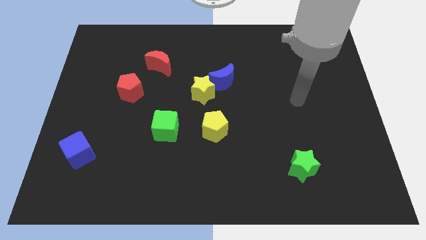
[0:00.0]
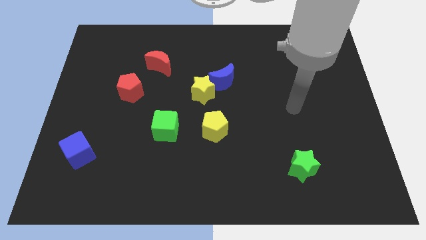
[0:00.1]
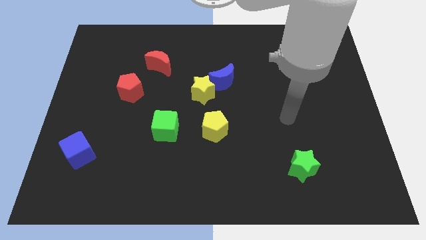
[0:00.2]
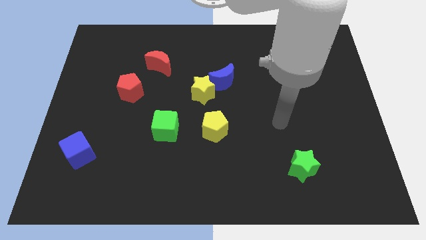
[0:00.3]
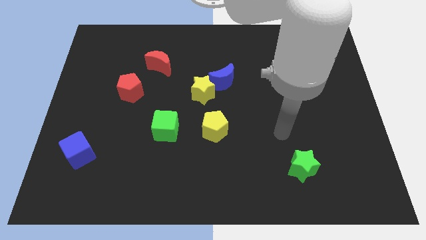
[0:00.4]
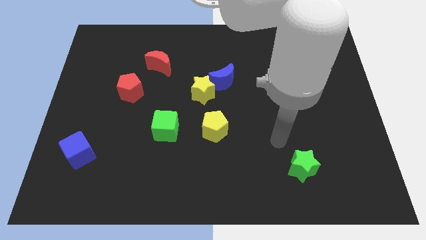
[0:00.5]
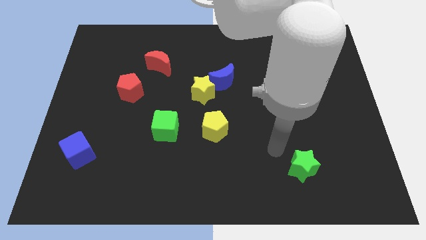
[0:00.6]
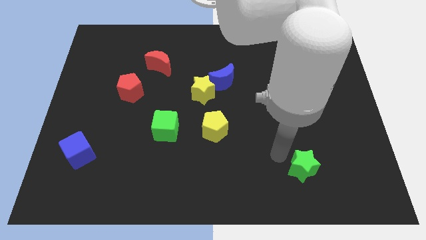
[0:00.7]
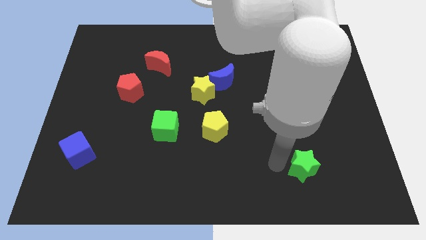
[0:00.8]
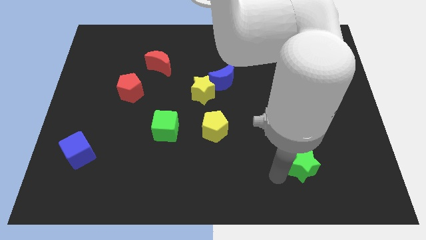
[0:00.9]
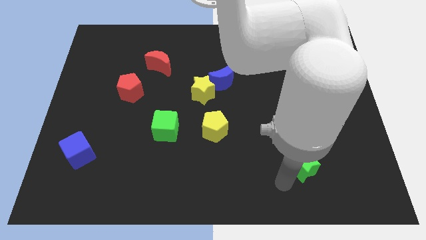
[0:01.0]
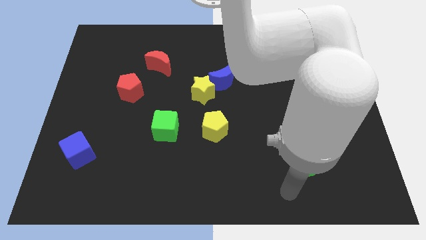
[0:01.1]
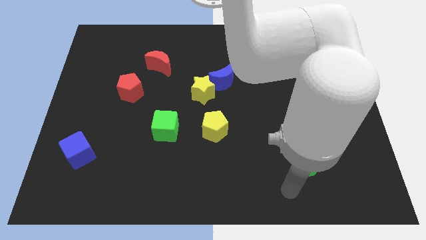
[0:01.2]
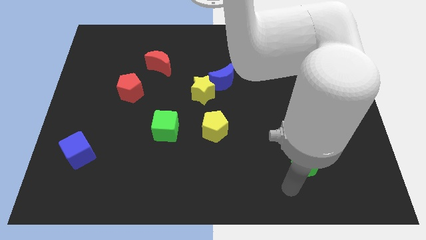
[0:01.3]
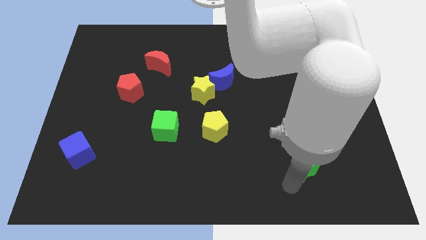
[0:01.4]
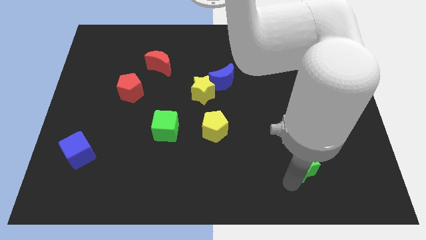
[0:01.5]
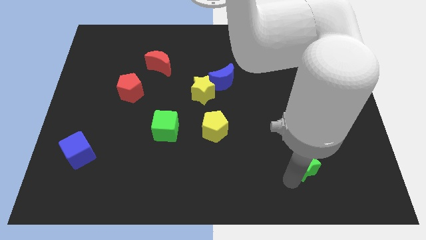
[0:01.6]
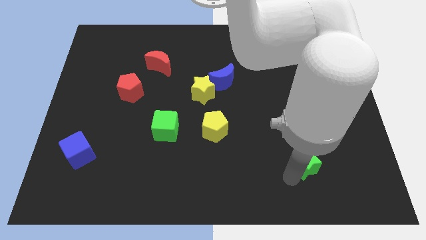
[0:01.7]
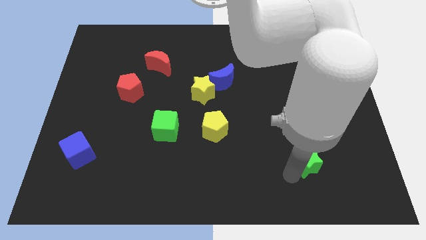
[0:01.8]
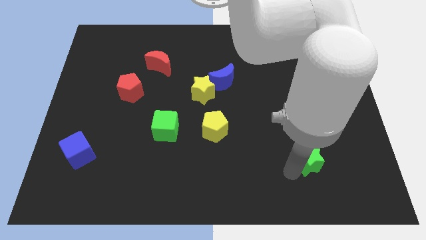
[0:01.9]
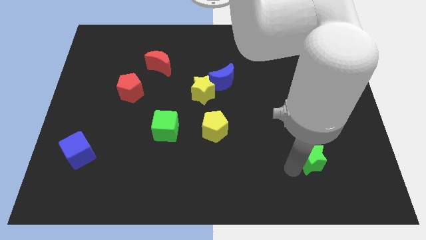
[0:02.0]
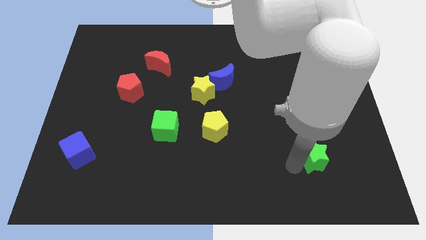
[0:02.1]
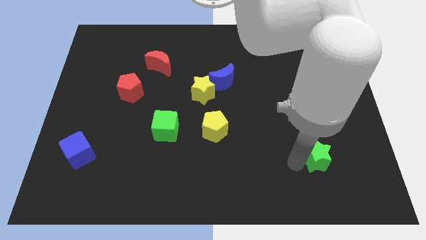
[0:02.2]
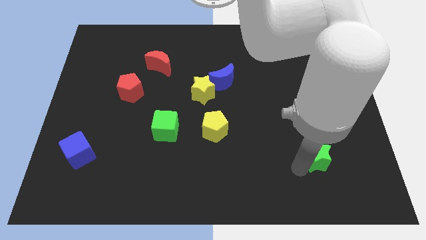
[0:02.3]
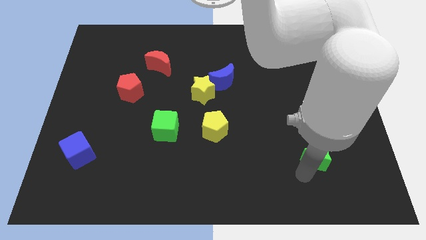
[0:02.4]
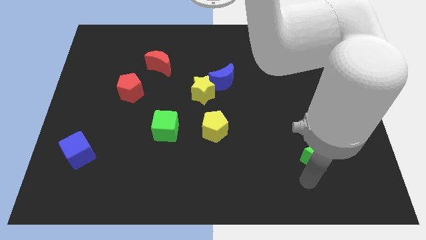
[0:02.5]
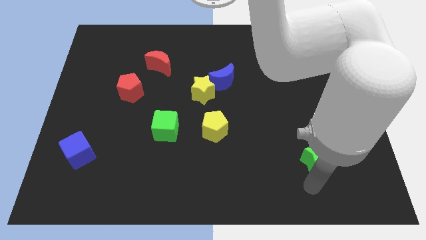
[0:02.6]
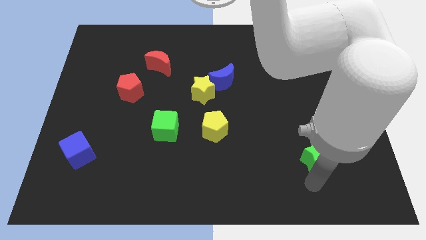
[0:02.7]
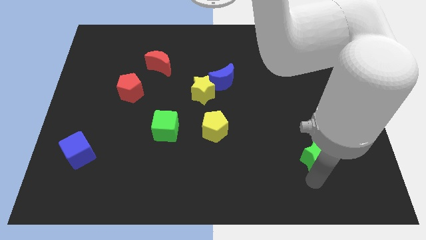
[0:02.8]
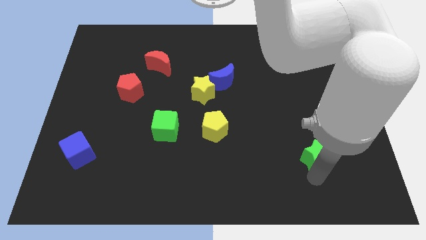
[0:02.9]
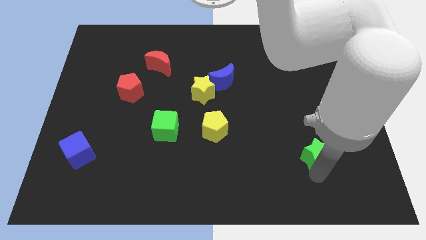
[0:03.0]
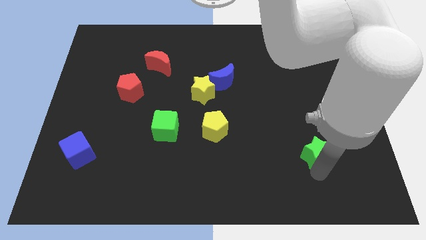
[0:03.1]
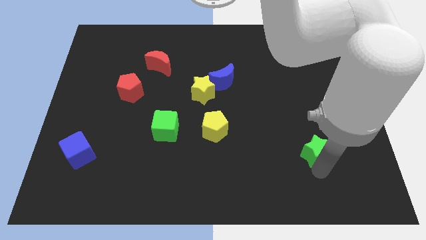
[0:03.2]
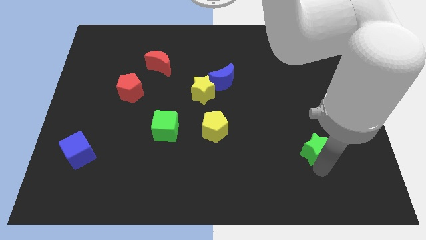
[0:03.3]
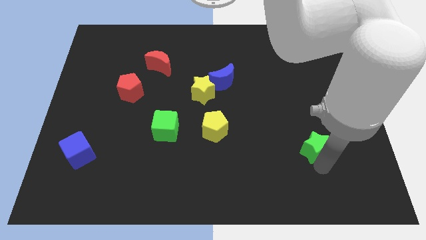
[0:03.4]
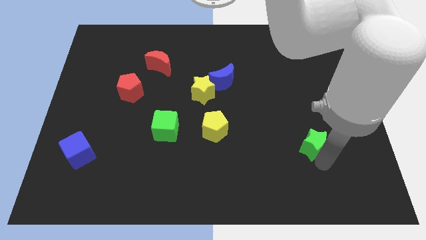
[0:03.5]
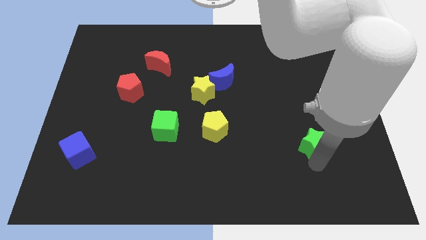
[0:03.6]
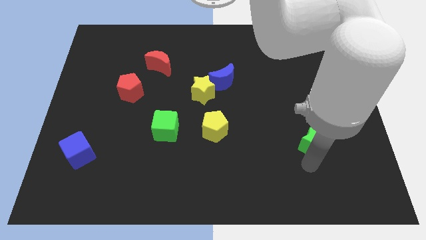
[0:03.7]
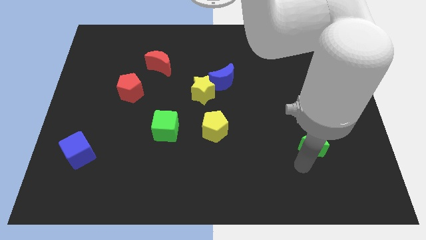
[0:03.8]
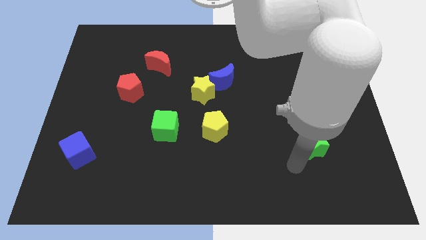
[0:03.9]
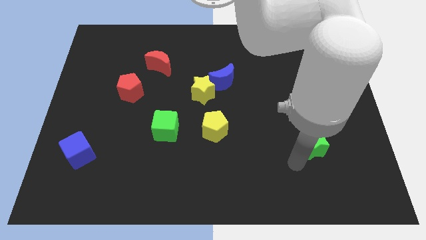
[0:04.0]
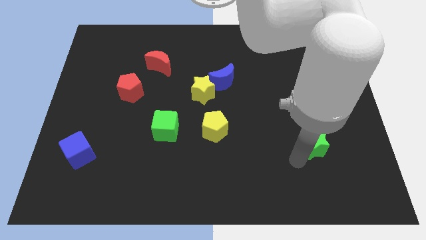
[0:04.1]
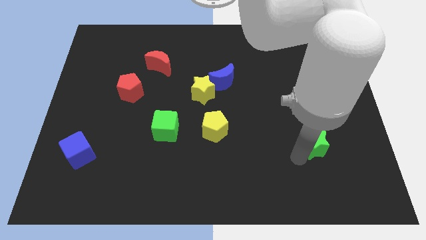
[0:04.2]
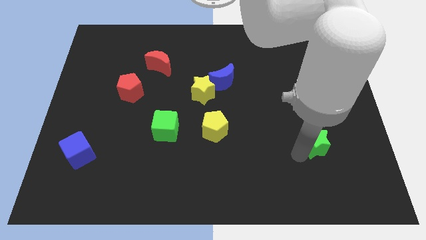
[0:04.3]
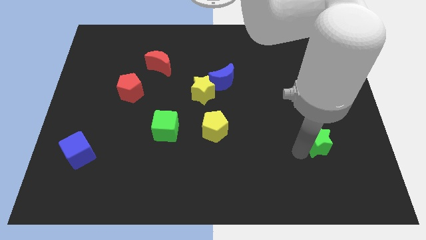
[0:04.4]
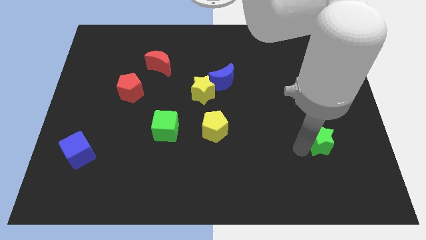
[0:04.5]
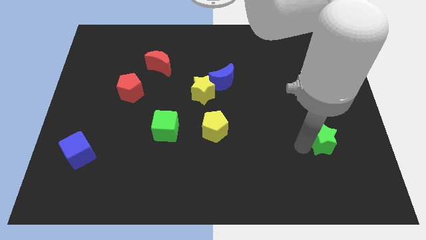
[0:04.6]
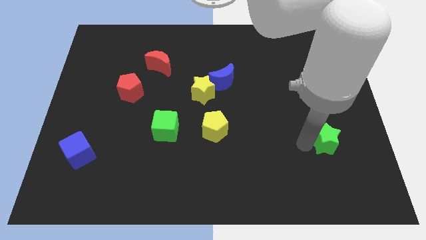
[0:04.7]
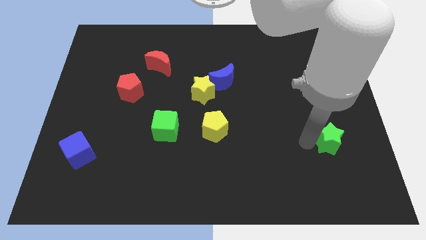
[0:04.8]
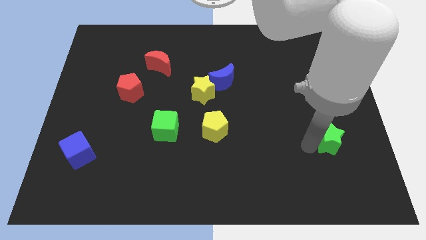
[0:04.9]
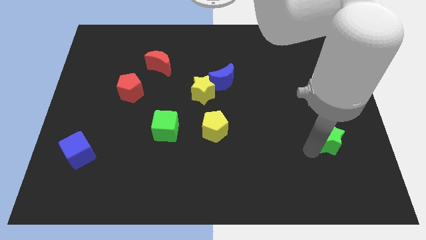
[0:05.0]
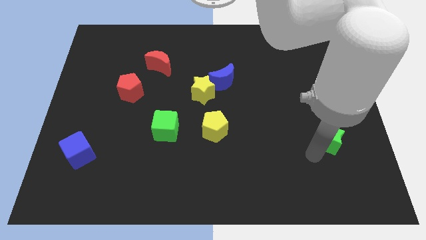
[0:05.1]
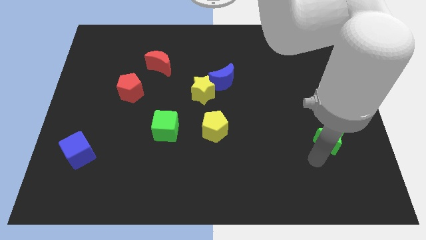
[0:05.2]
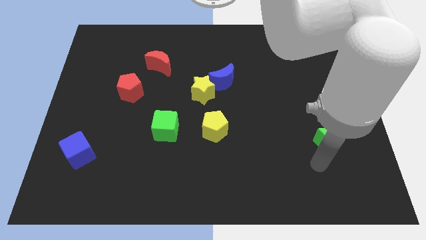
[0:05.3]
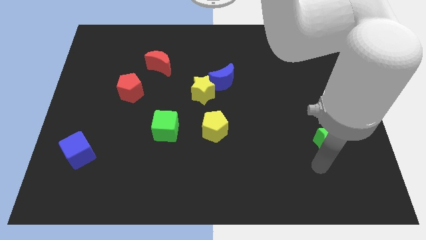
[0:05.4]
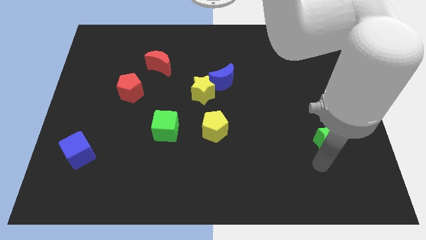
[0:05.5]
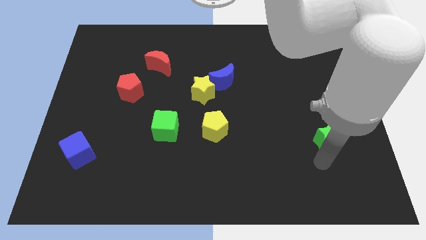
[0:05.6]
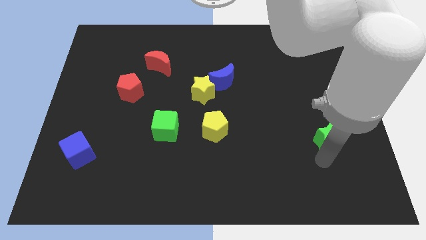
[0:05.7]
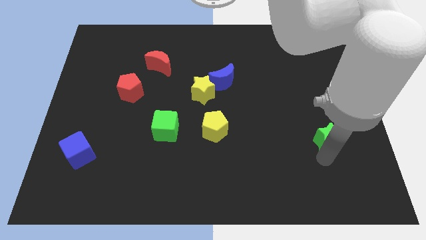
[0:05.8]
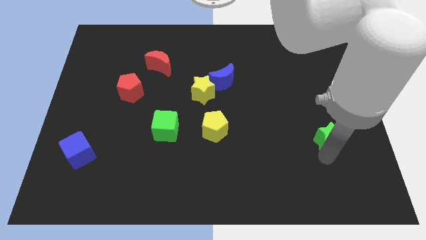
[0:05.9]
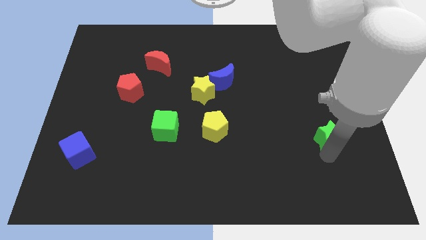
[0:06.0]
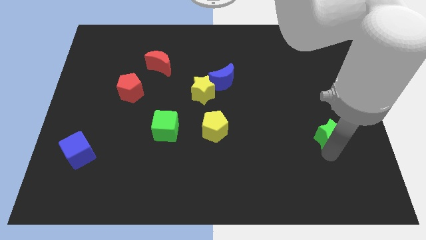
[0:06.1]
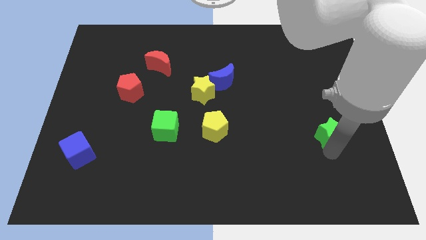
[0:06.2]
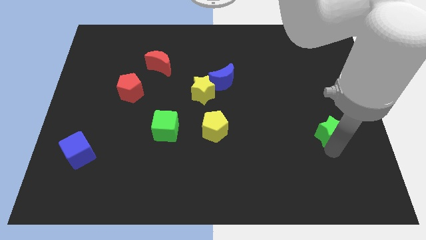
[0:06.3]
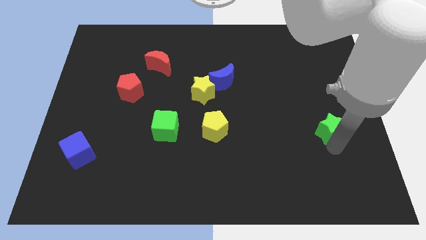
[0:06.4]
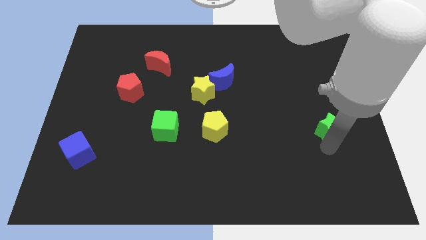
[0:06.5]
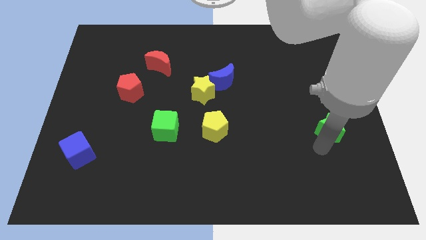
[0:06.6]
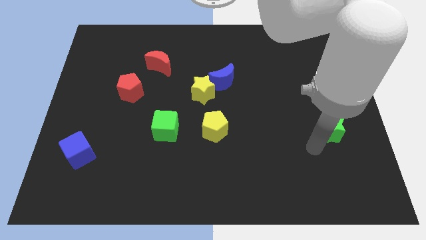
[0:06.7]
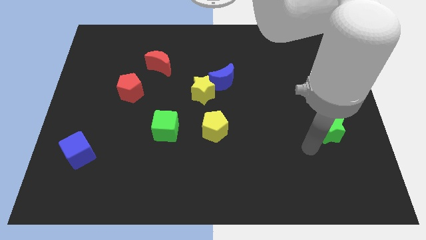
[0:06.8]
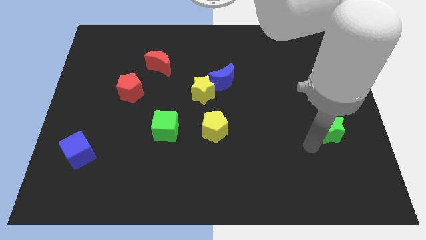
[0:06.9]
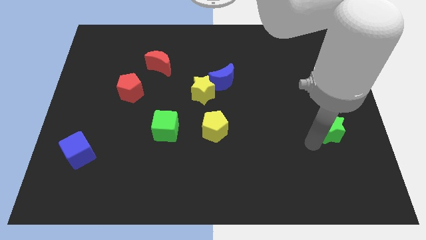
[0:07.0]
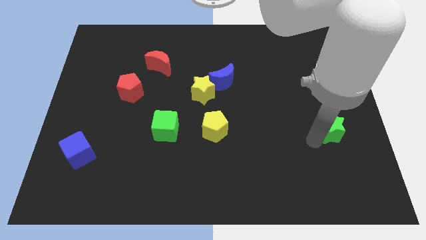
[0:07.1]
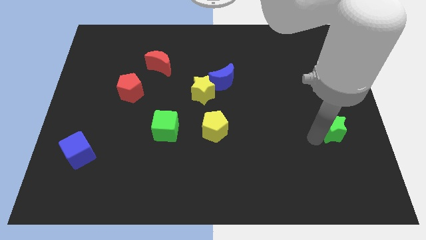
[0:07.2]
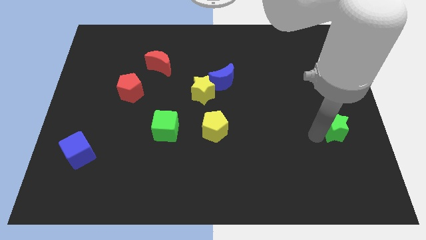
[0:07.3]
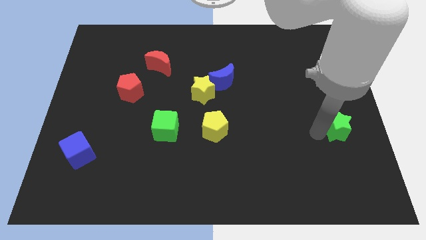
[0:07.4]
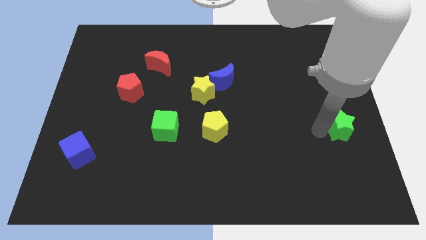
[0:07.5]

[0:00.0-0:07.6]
push the green star to the center right
